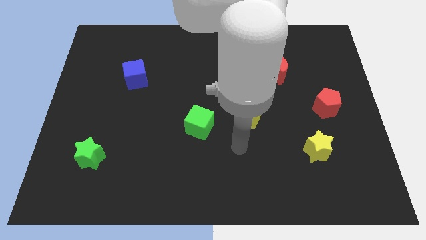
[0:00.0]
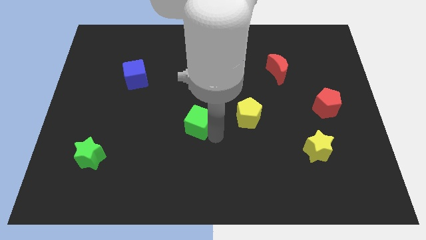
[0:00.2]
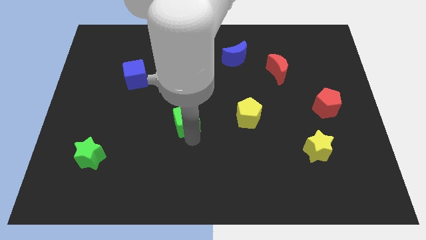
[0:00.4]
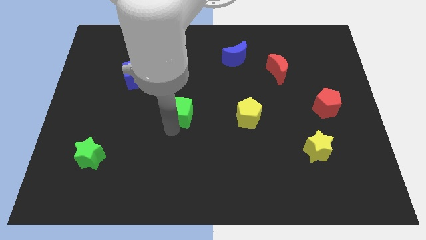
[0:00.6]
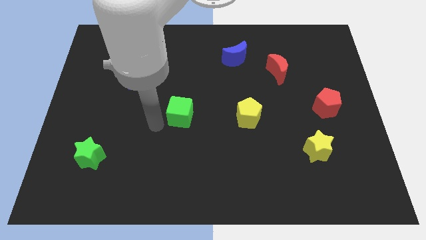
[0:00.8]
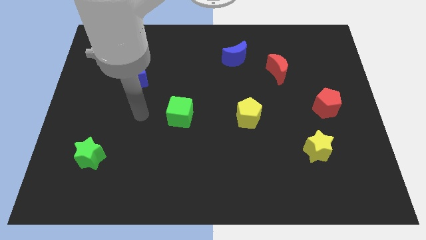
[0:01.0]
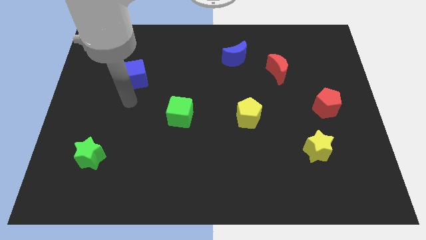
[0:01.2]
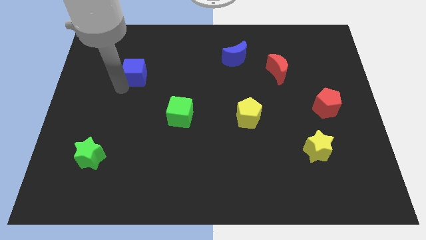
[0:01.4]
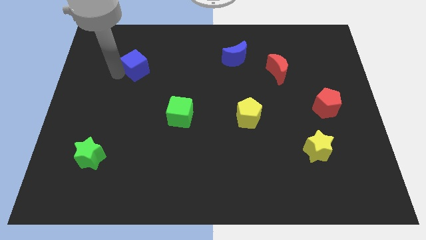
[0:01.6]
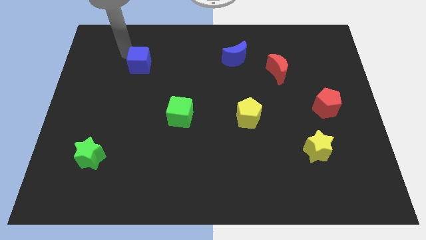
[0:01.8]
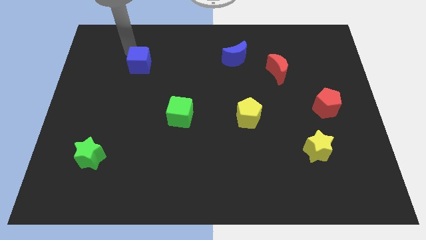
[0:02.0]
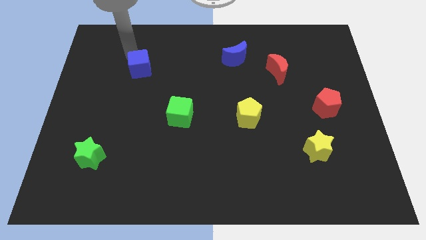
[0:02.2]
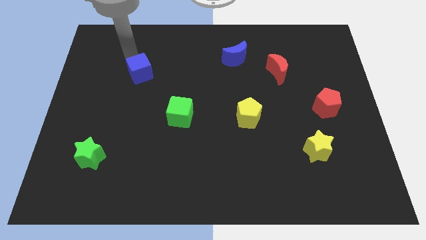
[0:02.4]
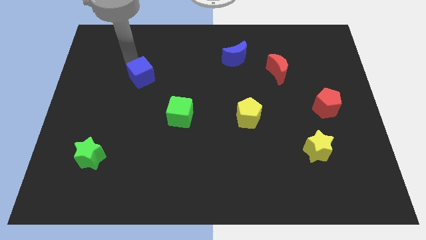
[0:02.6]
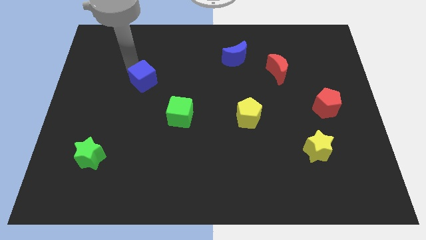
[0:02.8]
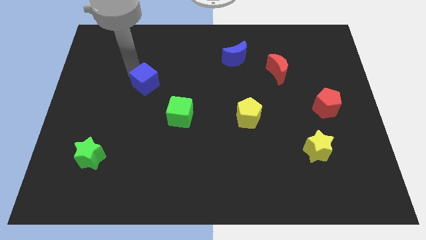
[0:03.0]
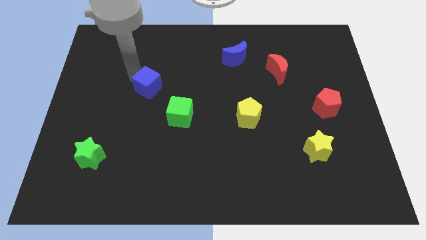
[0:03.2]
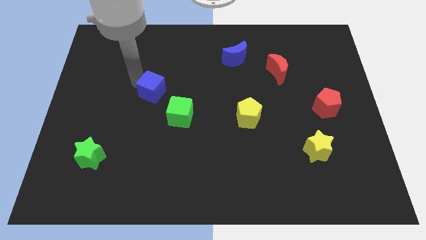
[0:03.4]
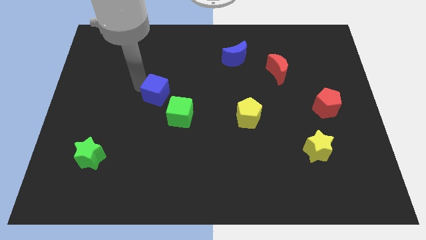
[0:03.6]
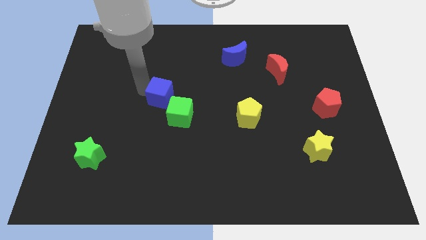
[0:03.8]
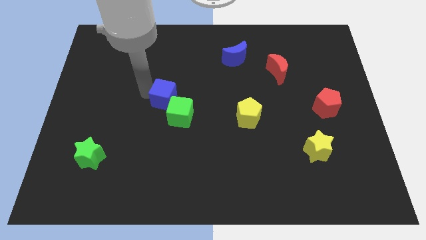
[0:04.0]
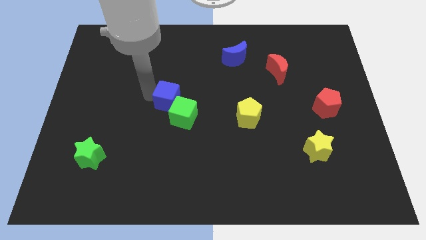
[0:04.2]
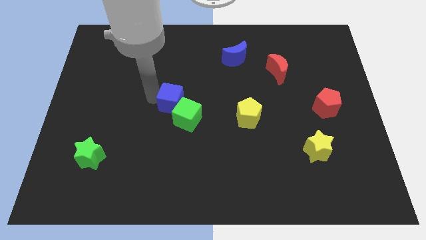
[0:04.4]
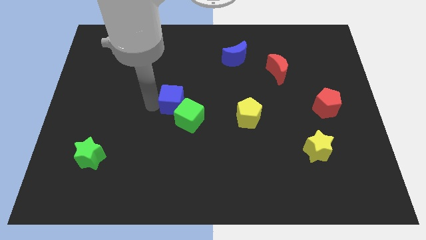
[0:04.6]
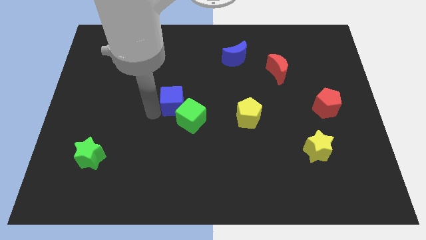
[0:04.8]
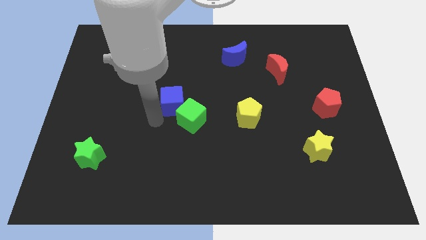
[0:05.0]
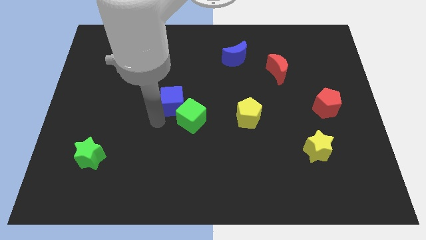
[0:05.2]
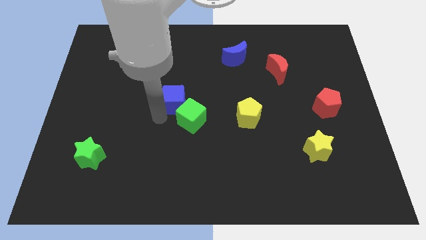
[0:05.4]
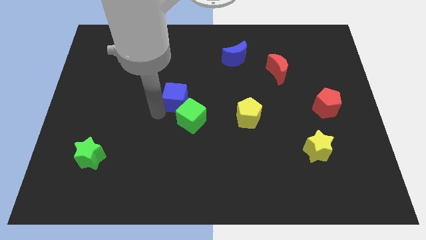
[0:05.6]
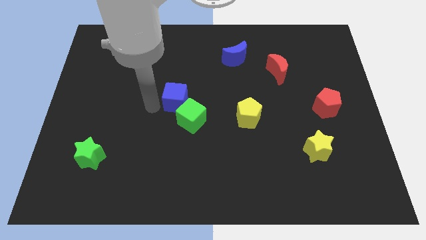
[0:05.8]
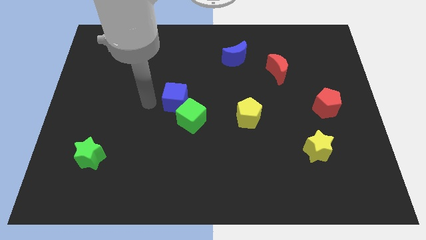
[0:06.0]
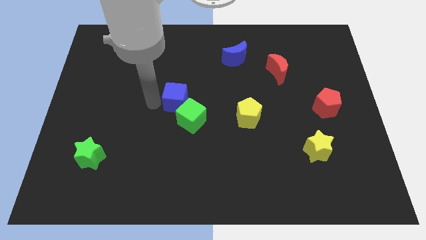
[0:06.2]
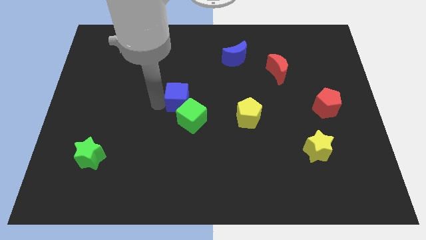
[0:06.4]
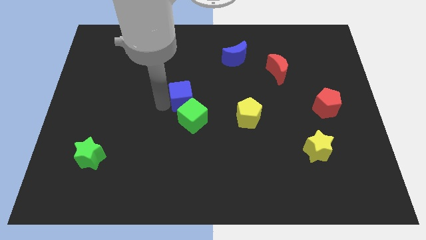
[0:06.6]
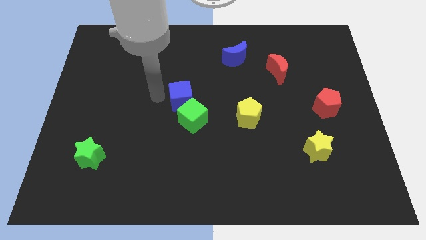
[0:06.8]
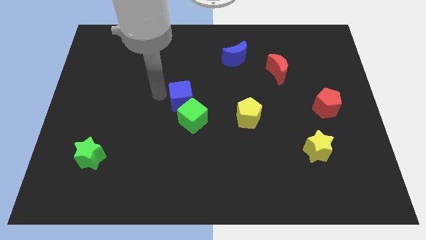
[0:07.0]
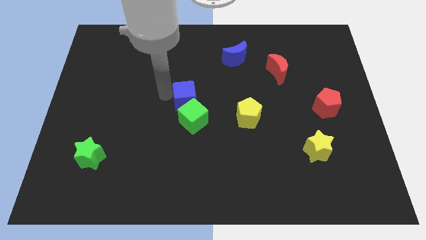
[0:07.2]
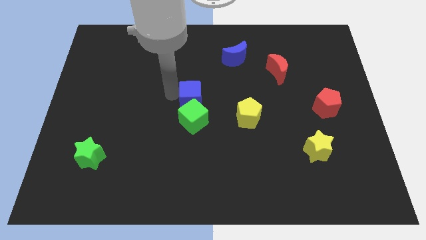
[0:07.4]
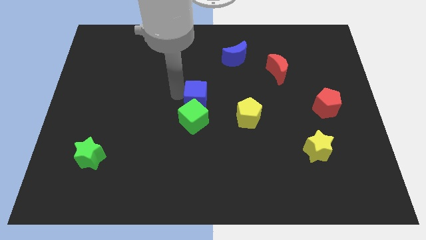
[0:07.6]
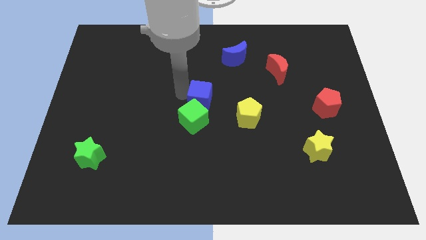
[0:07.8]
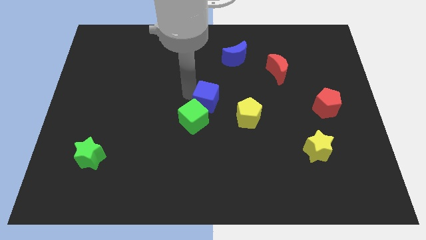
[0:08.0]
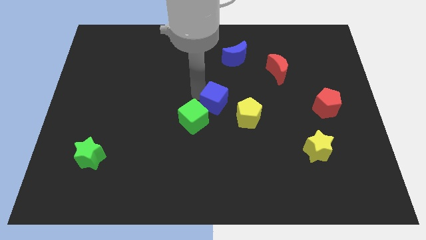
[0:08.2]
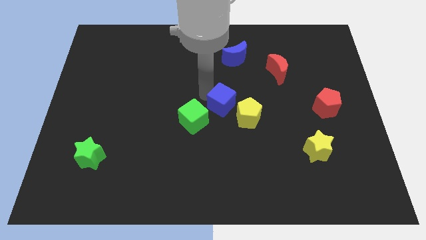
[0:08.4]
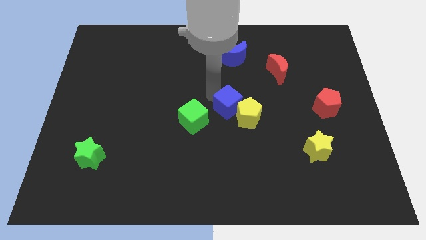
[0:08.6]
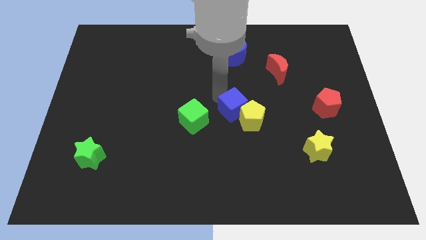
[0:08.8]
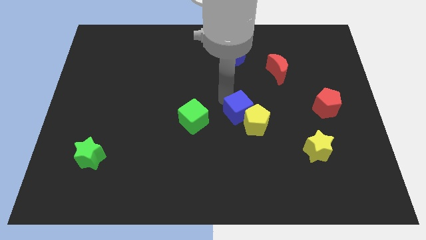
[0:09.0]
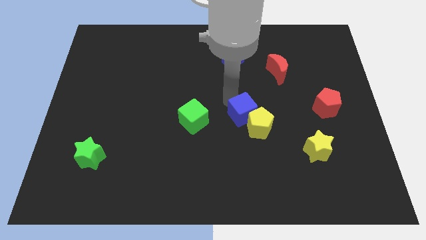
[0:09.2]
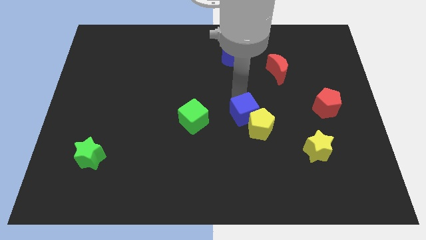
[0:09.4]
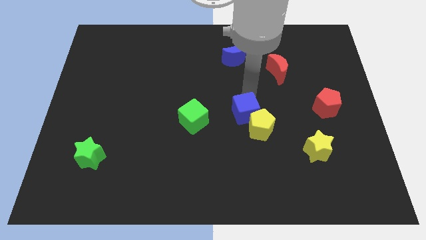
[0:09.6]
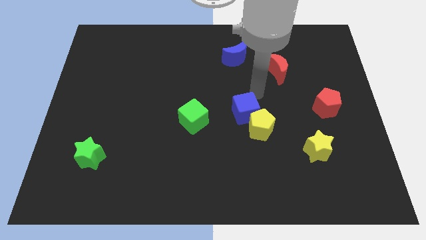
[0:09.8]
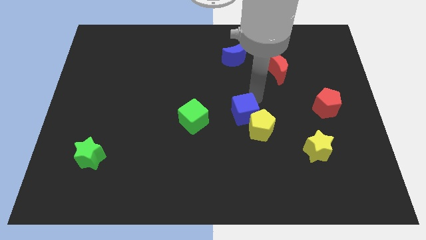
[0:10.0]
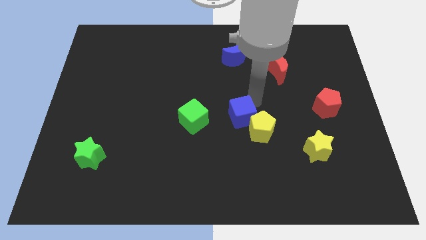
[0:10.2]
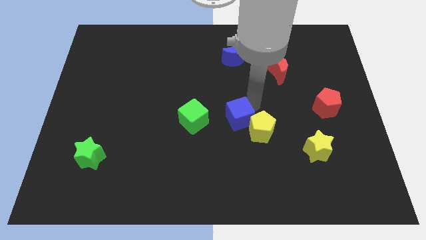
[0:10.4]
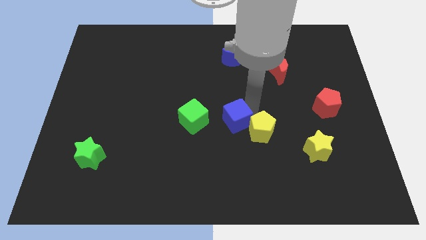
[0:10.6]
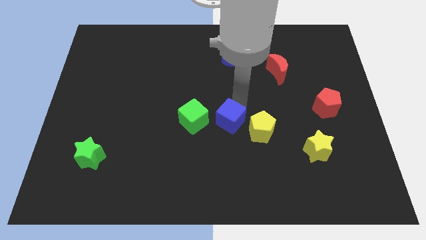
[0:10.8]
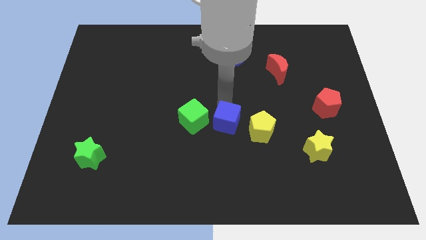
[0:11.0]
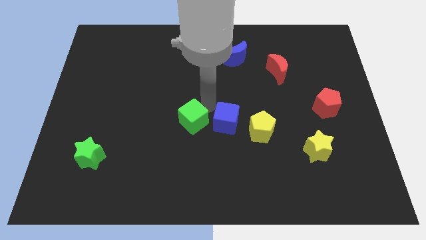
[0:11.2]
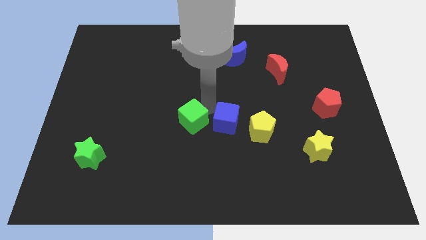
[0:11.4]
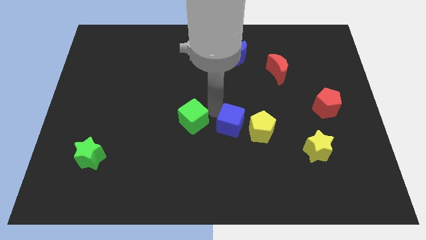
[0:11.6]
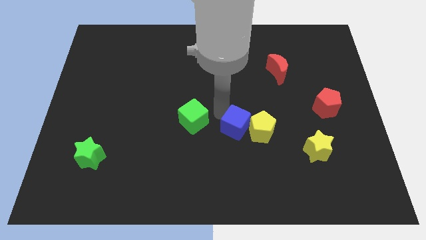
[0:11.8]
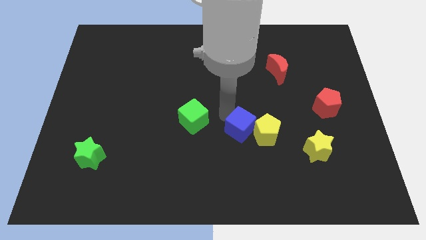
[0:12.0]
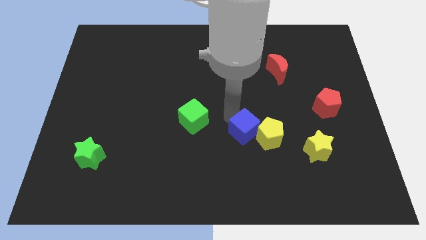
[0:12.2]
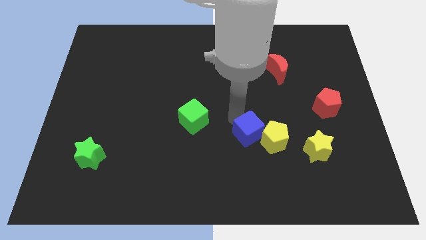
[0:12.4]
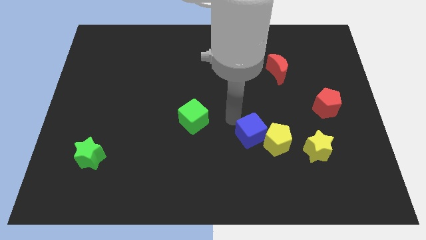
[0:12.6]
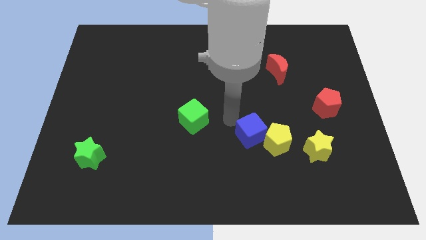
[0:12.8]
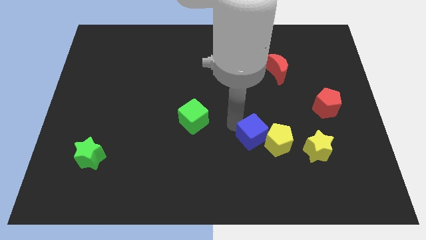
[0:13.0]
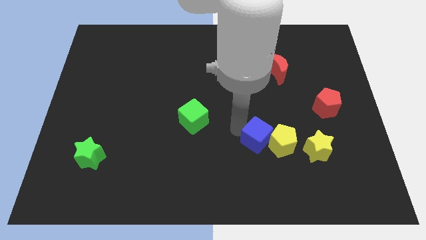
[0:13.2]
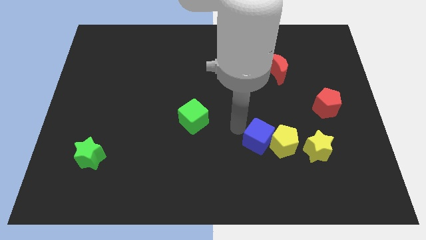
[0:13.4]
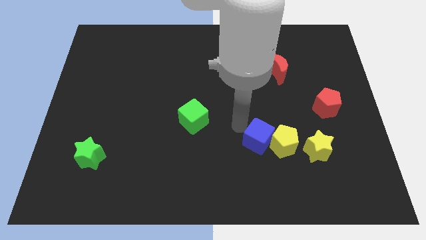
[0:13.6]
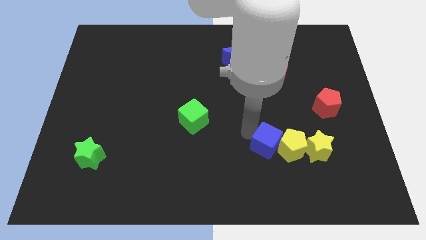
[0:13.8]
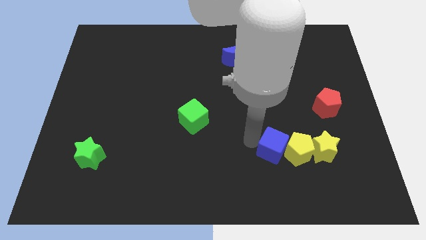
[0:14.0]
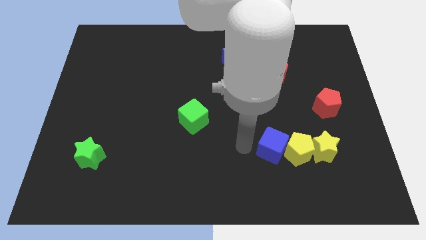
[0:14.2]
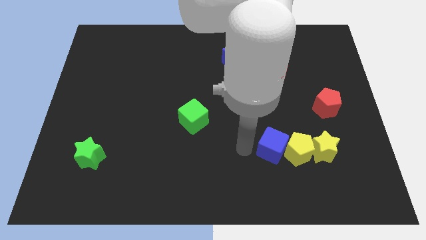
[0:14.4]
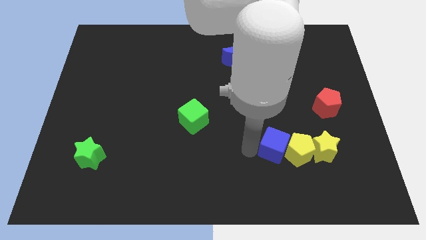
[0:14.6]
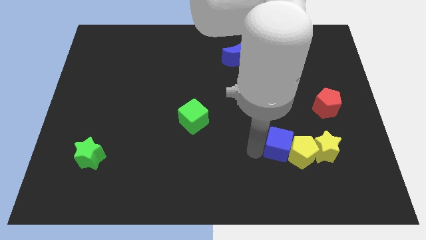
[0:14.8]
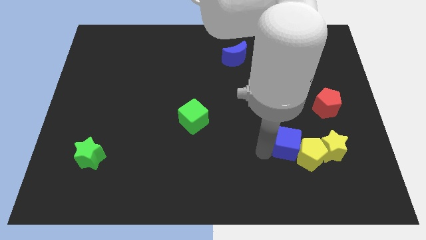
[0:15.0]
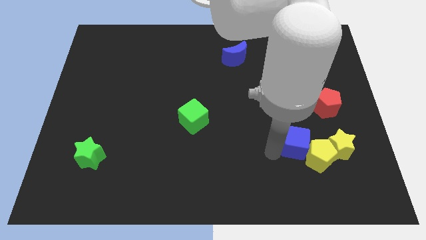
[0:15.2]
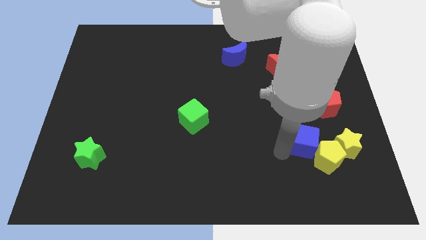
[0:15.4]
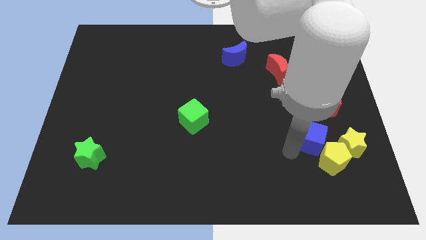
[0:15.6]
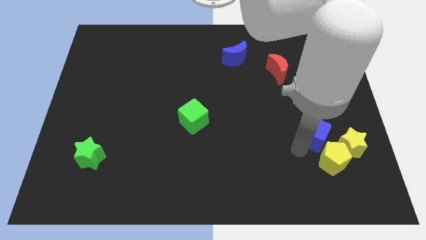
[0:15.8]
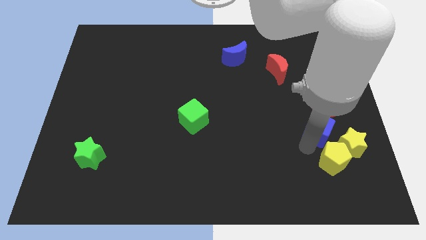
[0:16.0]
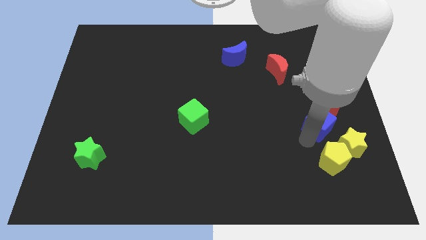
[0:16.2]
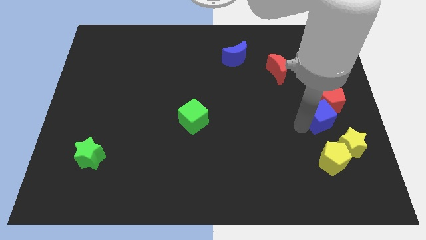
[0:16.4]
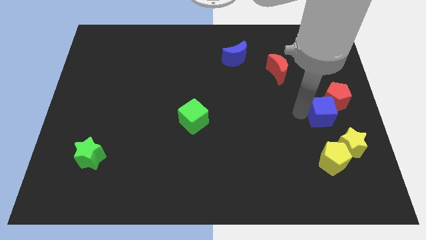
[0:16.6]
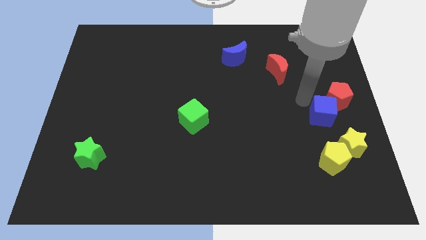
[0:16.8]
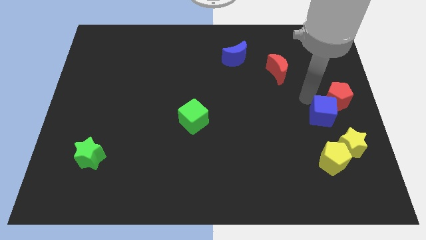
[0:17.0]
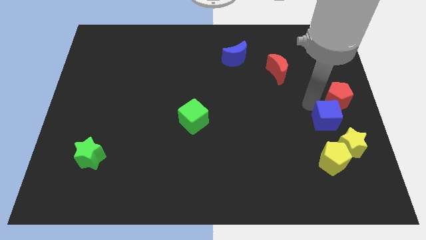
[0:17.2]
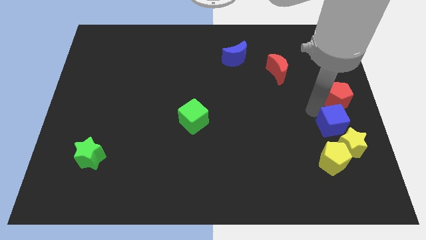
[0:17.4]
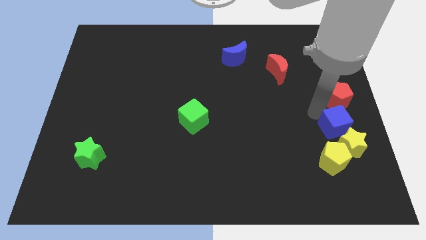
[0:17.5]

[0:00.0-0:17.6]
slide the blue cube next to the yellow star
